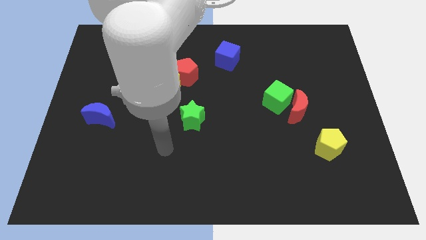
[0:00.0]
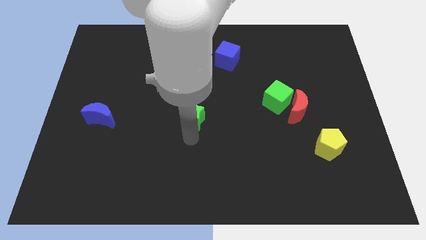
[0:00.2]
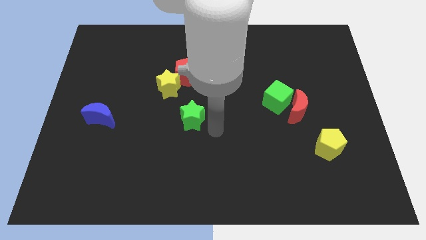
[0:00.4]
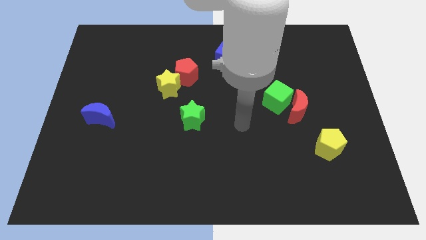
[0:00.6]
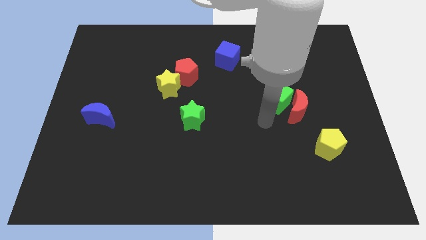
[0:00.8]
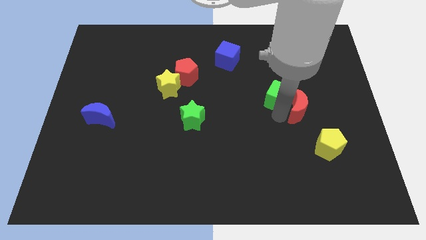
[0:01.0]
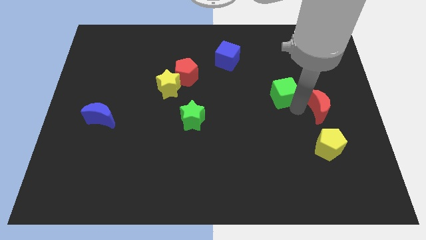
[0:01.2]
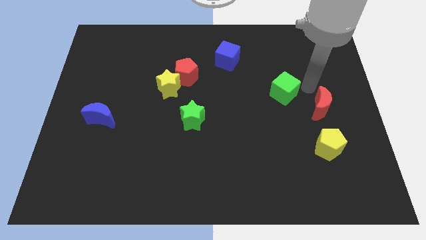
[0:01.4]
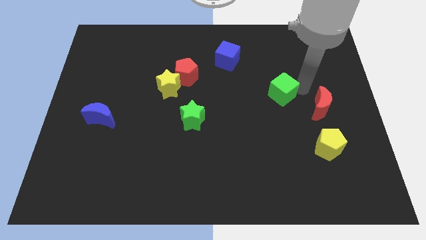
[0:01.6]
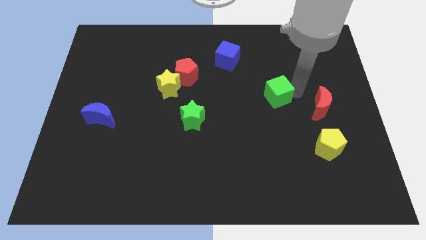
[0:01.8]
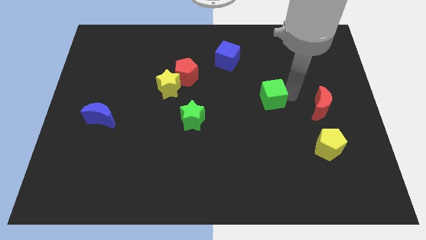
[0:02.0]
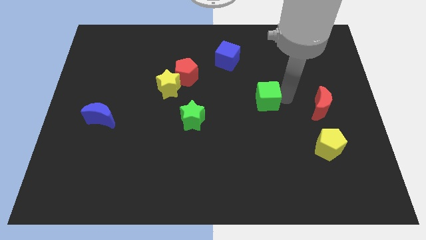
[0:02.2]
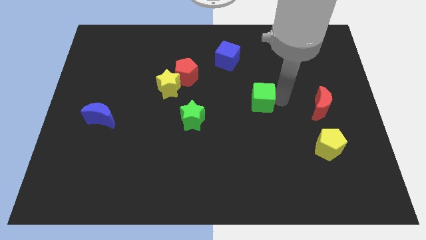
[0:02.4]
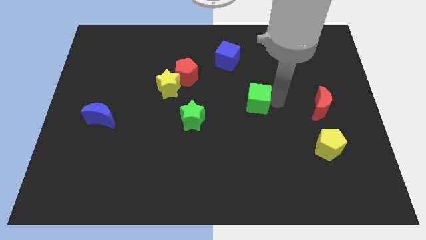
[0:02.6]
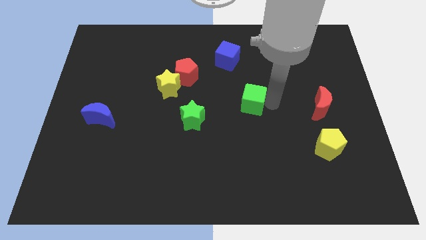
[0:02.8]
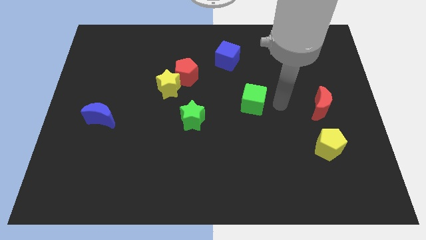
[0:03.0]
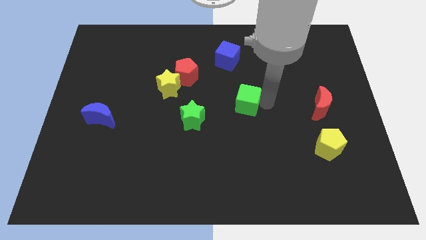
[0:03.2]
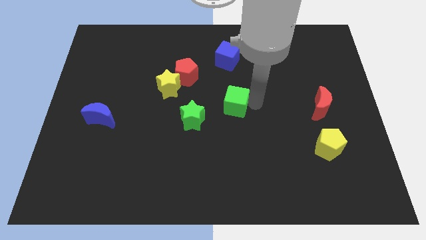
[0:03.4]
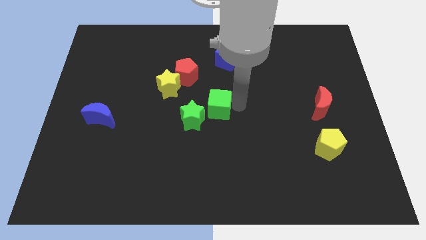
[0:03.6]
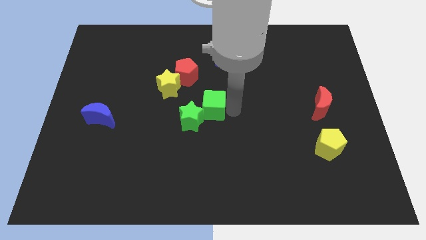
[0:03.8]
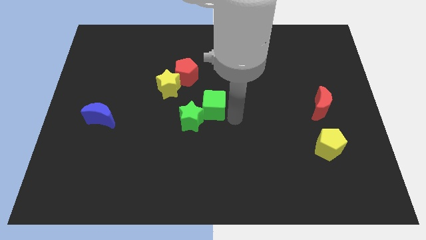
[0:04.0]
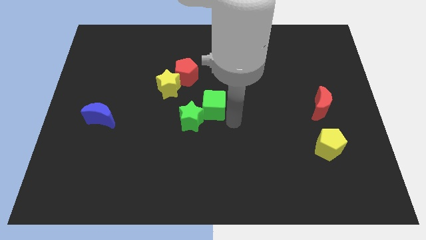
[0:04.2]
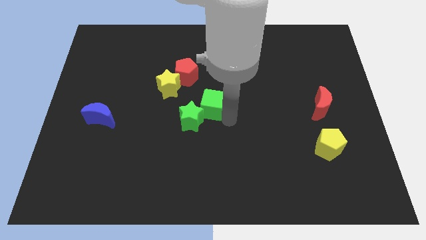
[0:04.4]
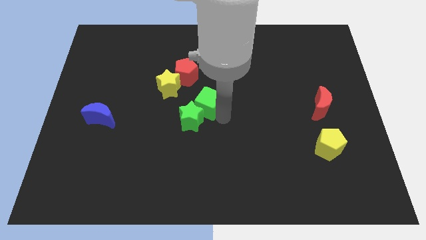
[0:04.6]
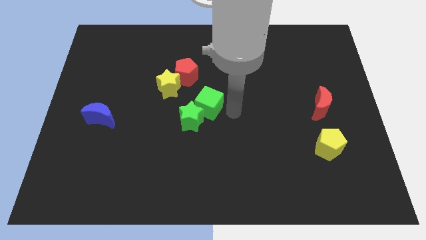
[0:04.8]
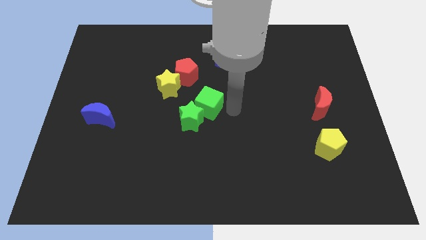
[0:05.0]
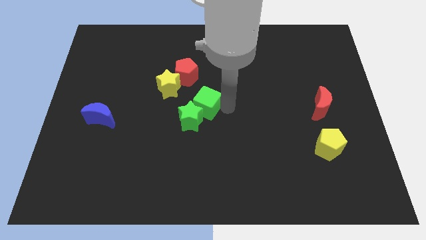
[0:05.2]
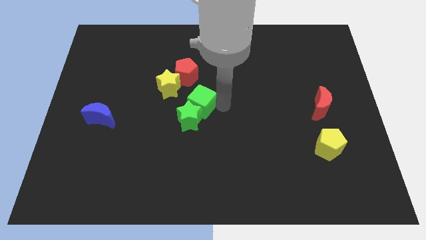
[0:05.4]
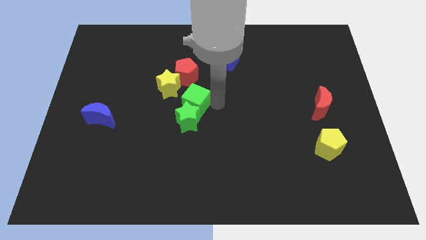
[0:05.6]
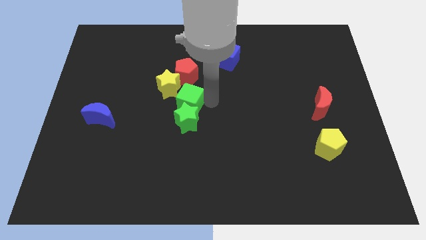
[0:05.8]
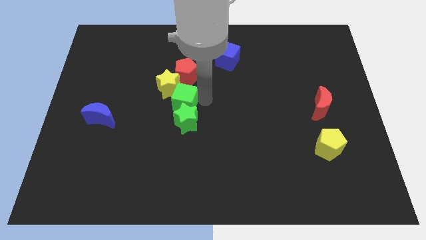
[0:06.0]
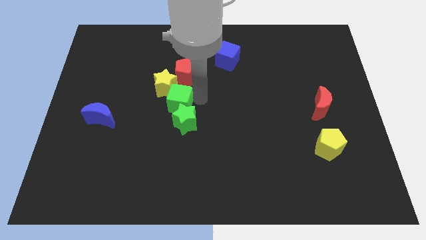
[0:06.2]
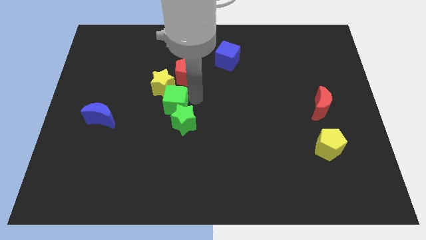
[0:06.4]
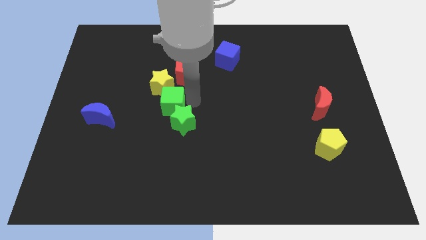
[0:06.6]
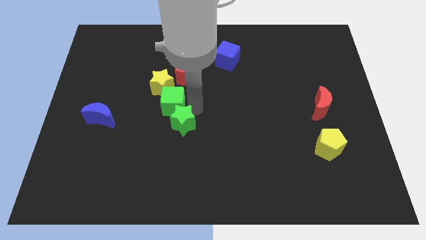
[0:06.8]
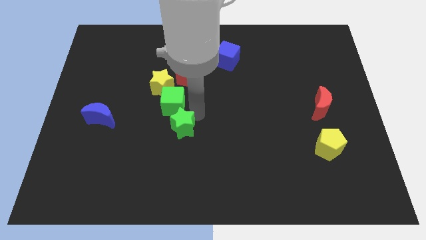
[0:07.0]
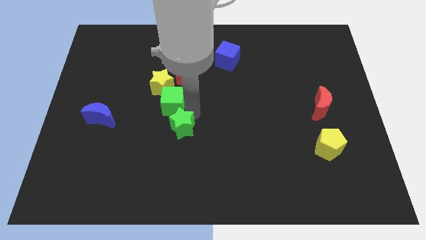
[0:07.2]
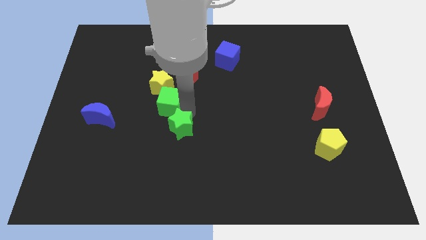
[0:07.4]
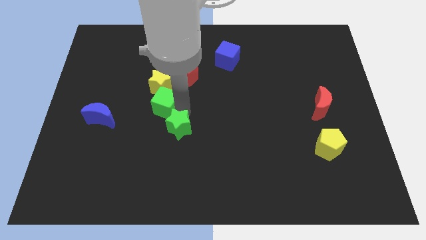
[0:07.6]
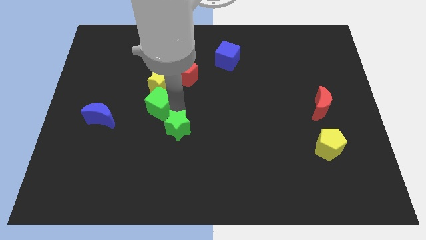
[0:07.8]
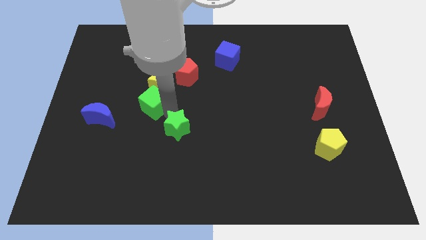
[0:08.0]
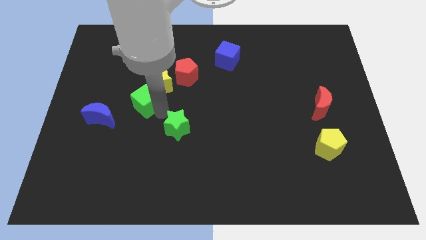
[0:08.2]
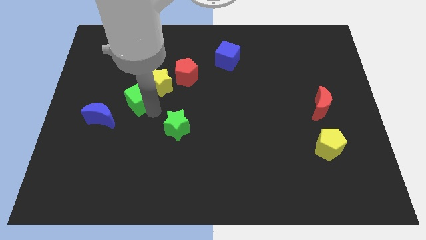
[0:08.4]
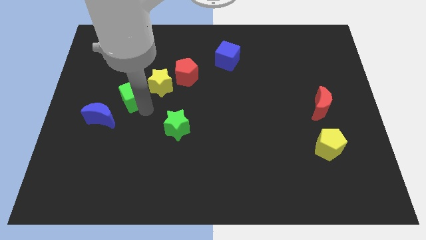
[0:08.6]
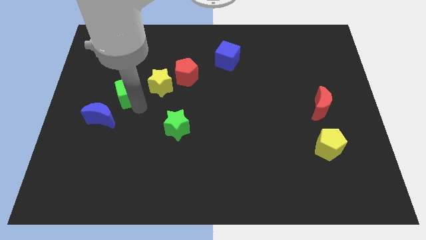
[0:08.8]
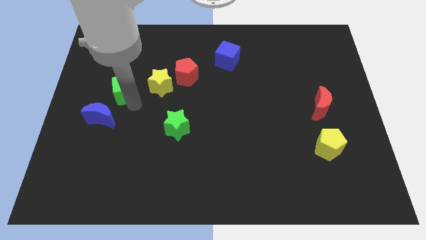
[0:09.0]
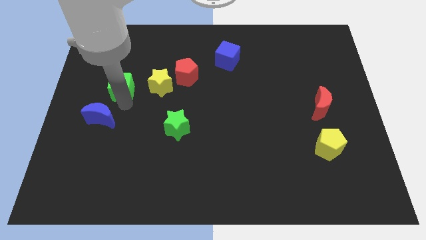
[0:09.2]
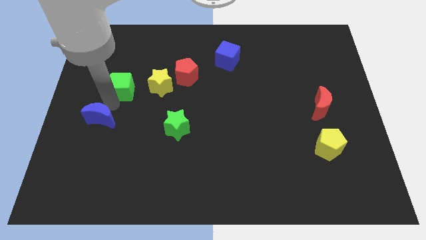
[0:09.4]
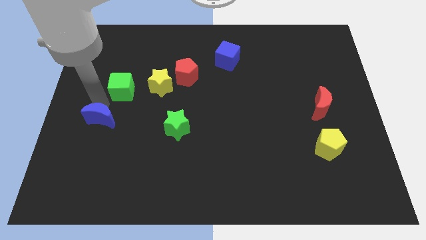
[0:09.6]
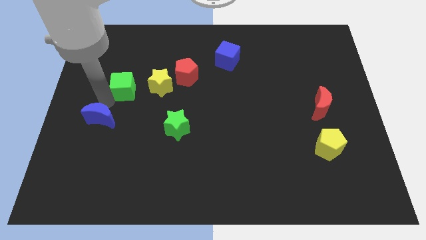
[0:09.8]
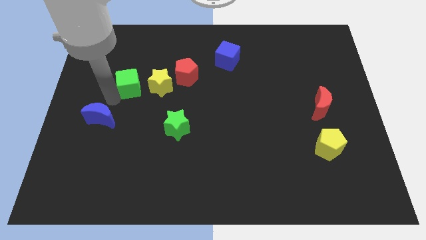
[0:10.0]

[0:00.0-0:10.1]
move the green cube left of the red pentagon

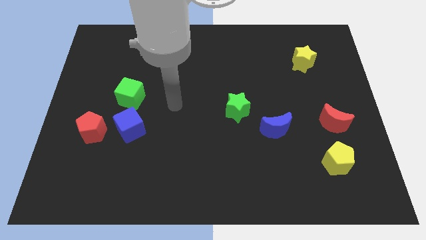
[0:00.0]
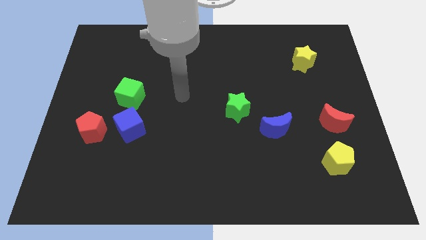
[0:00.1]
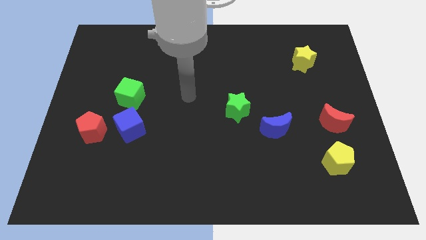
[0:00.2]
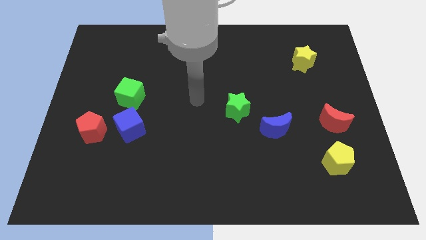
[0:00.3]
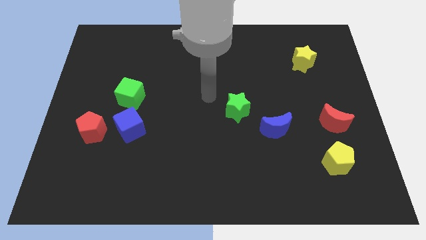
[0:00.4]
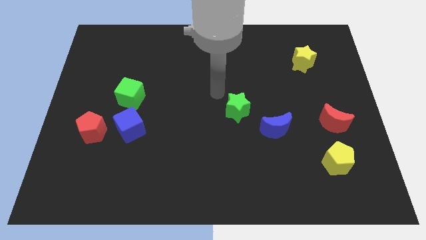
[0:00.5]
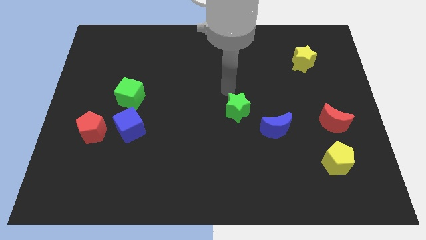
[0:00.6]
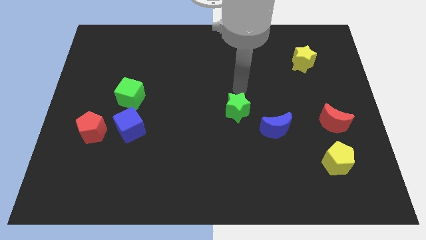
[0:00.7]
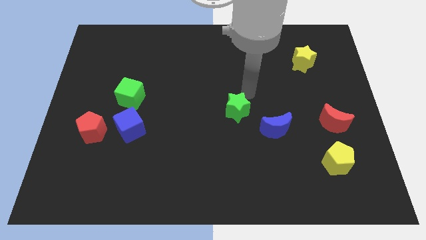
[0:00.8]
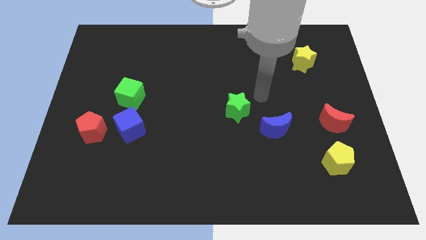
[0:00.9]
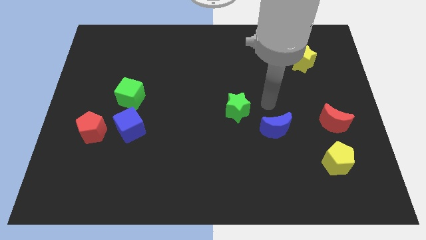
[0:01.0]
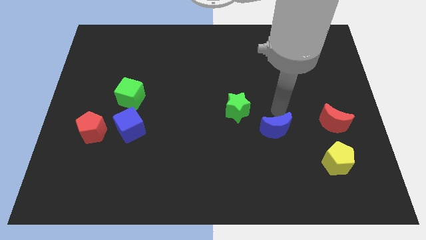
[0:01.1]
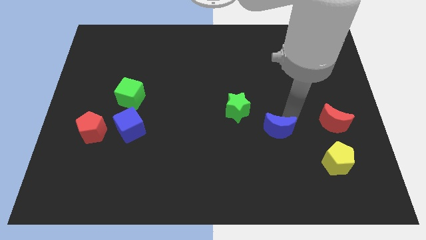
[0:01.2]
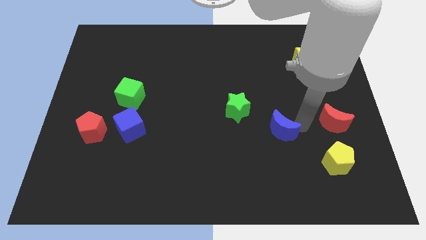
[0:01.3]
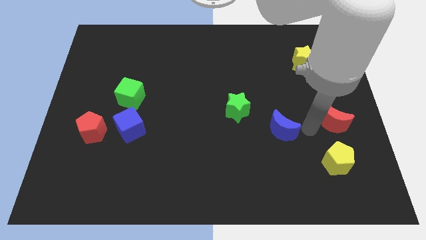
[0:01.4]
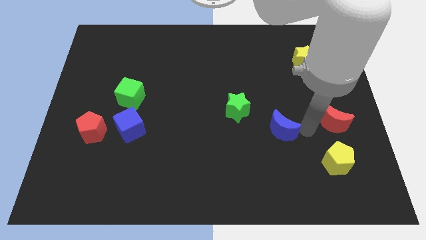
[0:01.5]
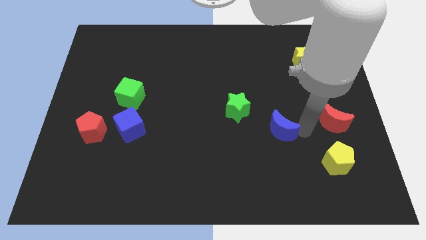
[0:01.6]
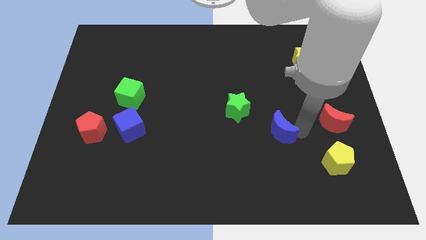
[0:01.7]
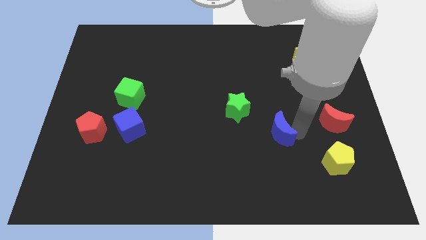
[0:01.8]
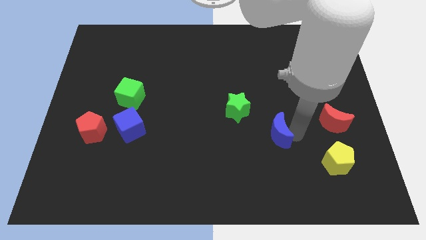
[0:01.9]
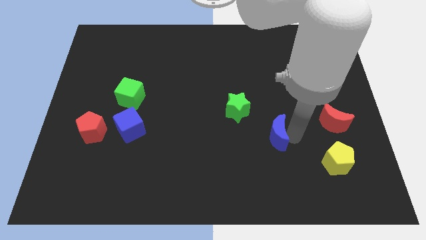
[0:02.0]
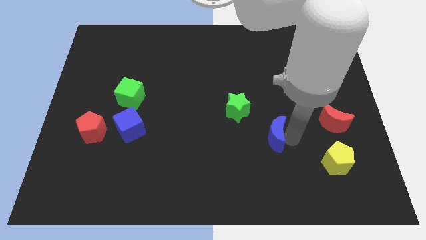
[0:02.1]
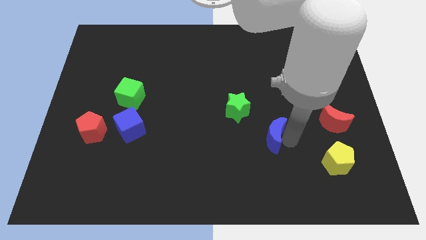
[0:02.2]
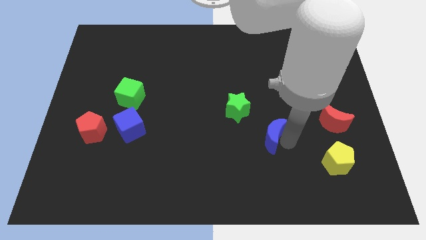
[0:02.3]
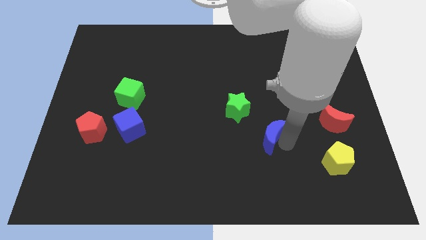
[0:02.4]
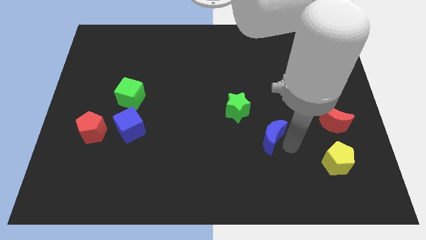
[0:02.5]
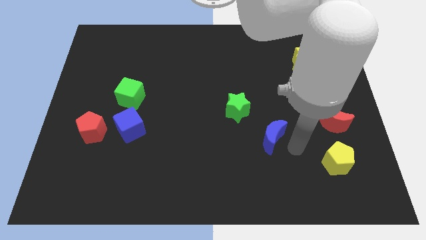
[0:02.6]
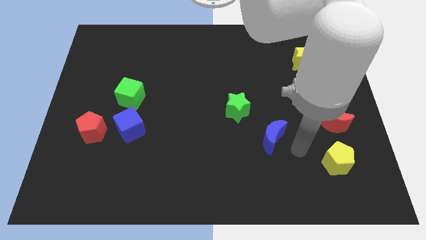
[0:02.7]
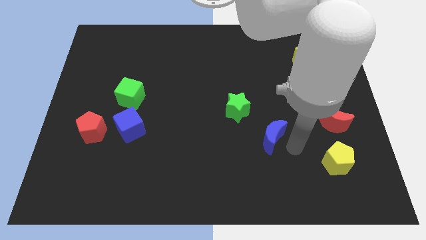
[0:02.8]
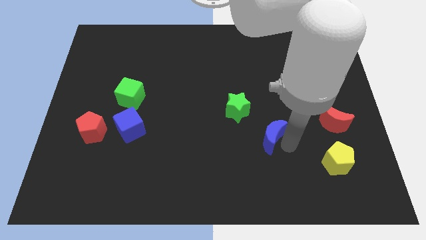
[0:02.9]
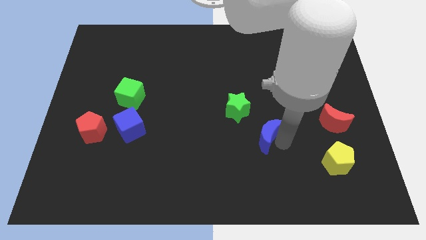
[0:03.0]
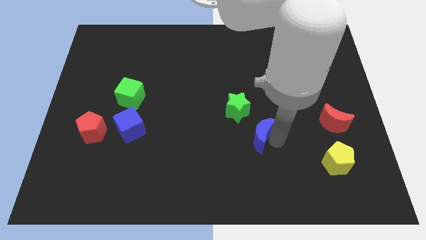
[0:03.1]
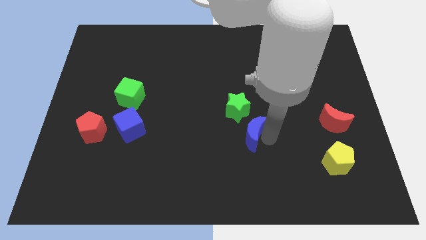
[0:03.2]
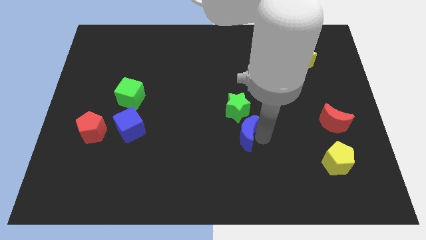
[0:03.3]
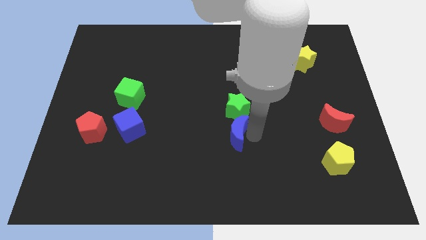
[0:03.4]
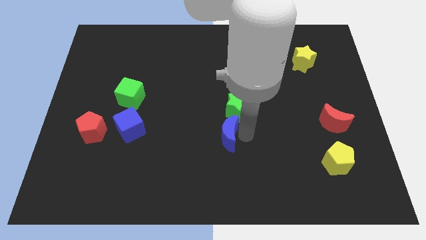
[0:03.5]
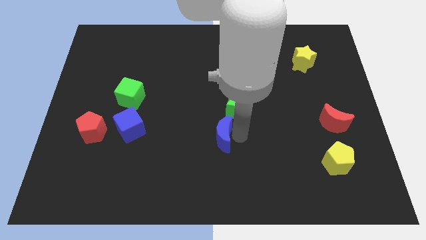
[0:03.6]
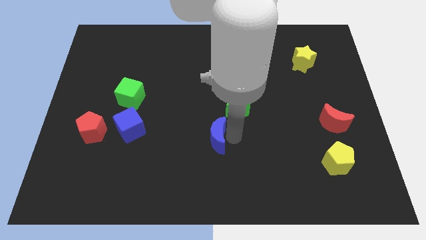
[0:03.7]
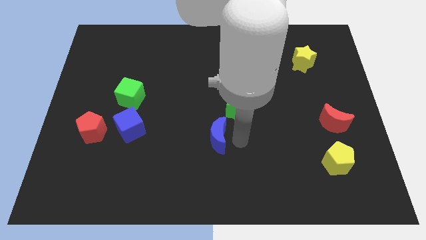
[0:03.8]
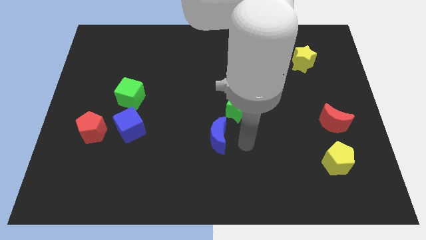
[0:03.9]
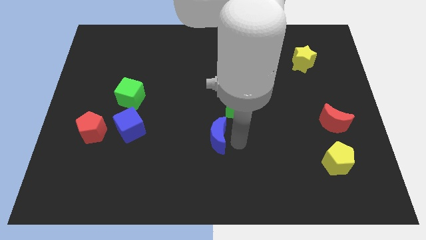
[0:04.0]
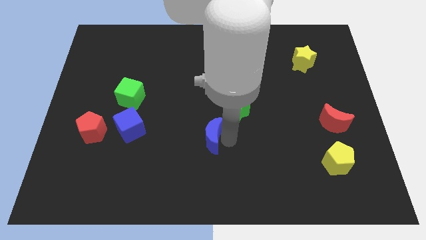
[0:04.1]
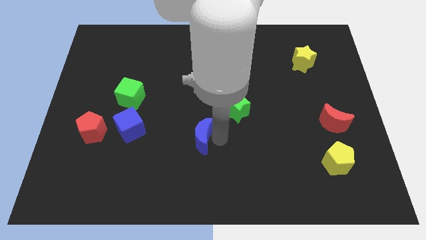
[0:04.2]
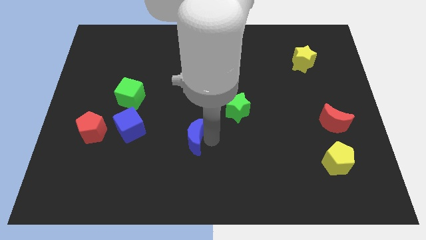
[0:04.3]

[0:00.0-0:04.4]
move the blue moon to the right of the blue cube
